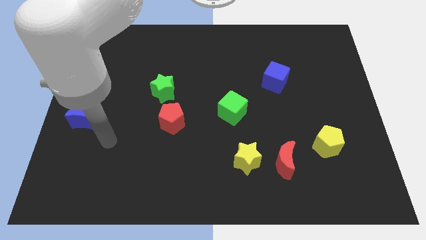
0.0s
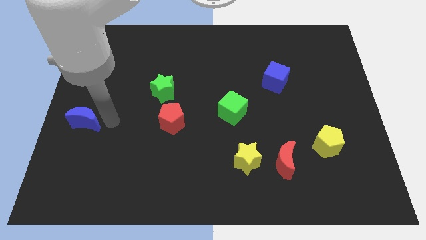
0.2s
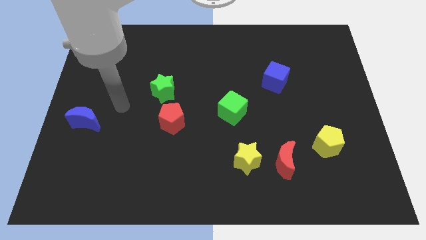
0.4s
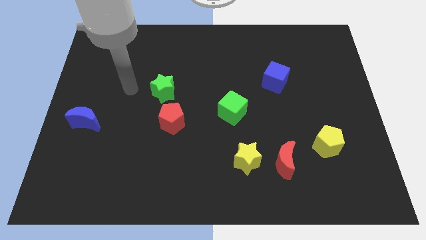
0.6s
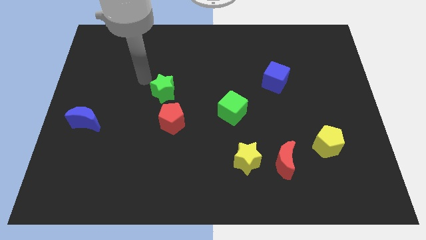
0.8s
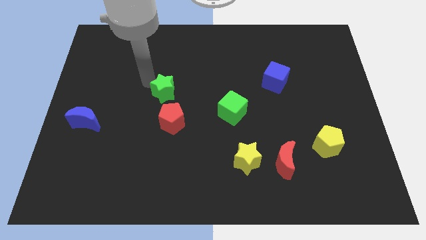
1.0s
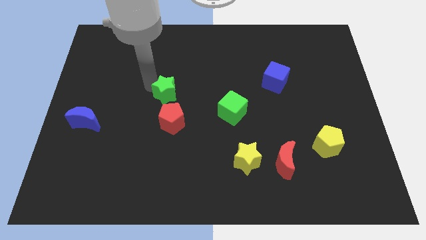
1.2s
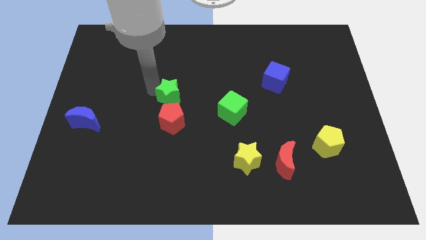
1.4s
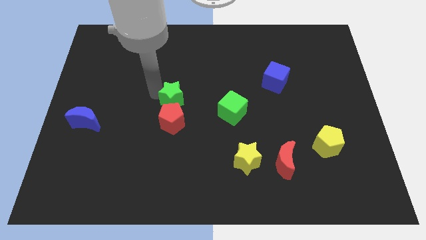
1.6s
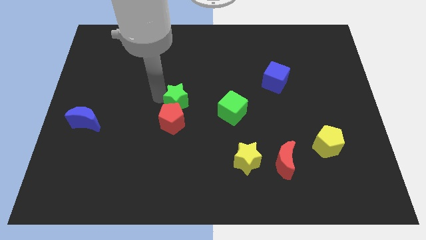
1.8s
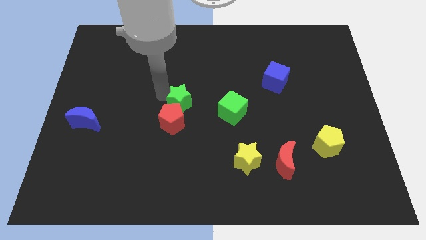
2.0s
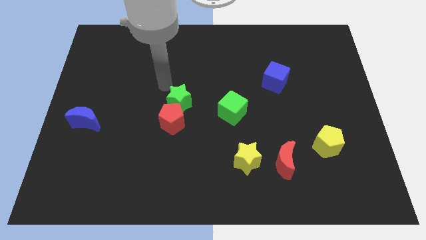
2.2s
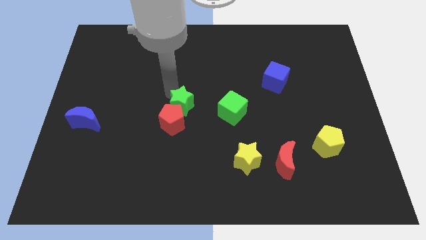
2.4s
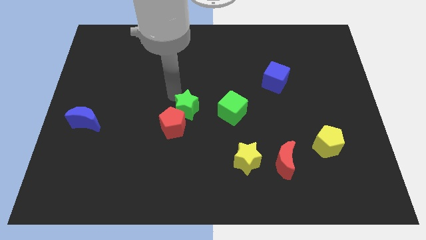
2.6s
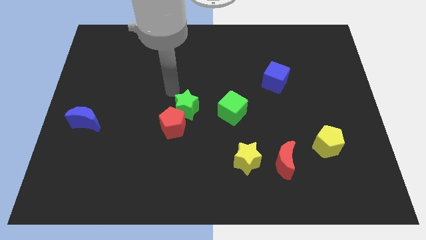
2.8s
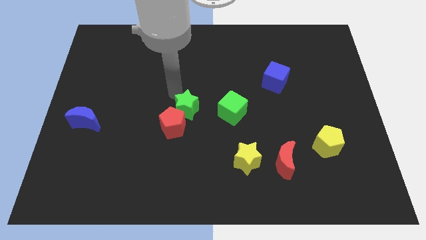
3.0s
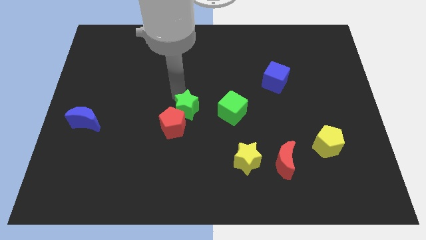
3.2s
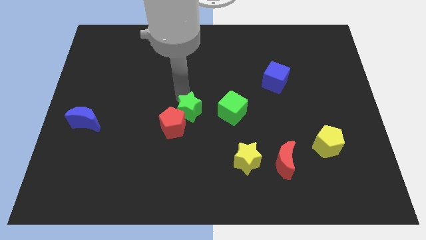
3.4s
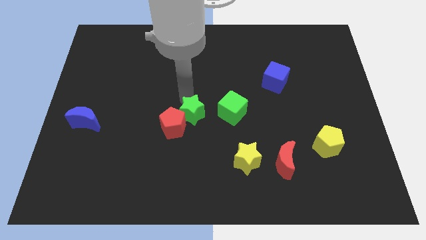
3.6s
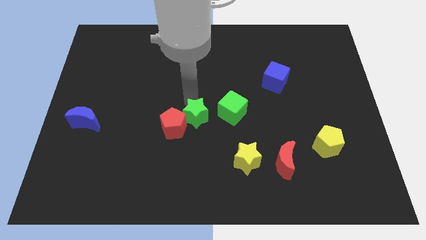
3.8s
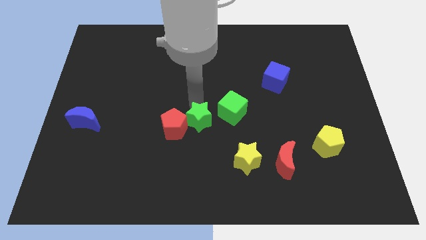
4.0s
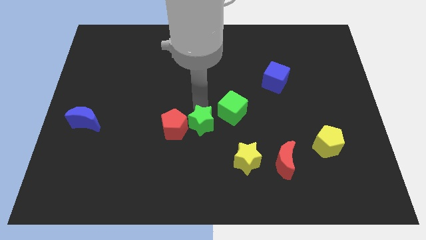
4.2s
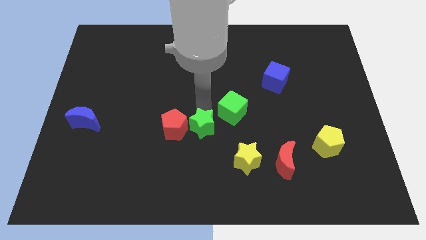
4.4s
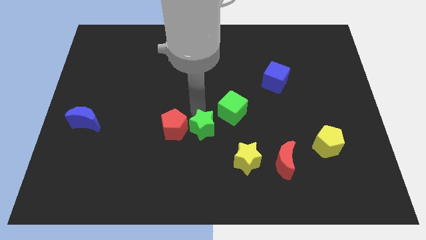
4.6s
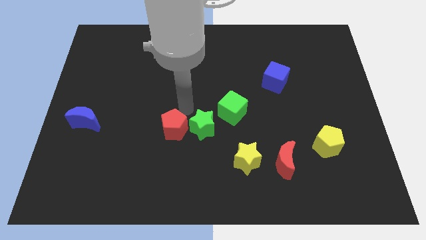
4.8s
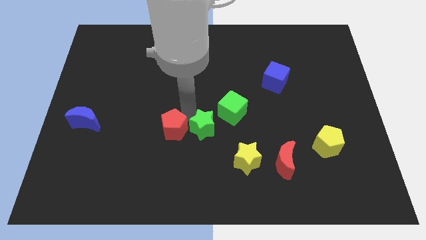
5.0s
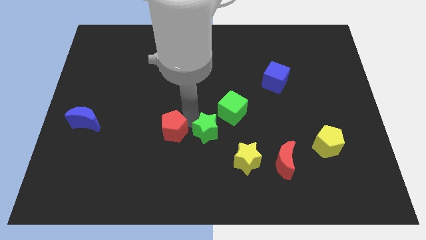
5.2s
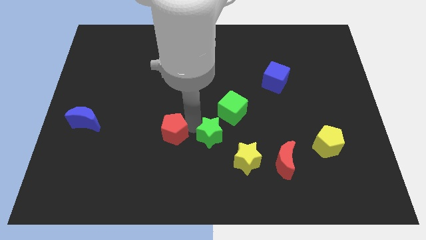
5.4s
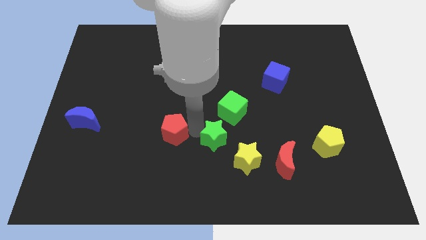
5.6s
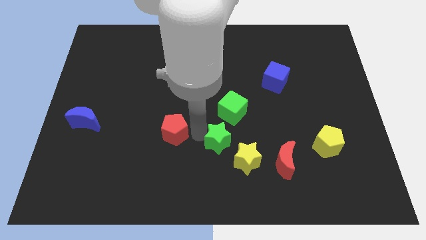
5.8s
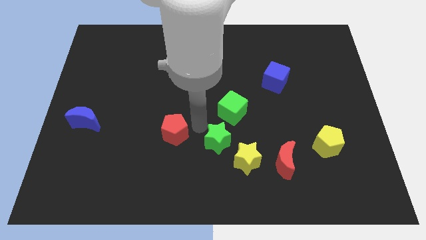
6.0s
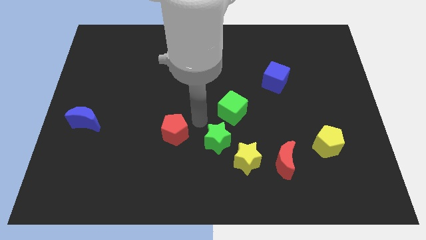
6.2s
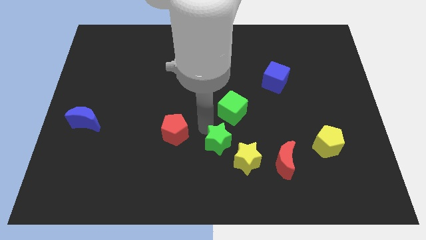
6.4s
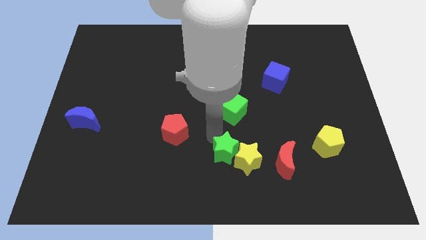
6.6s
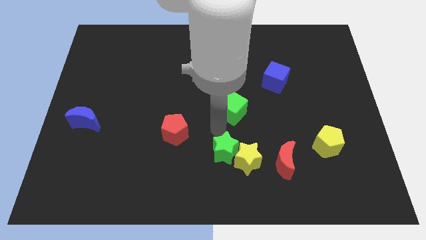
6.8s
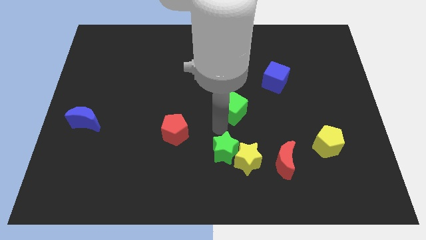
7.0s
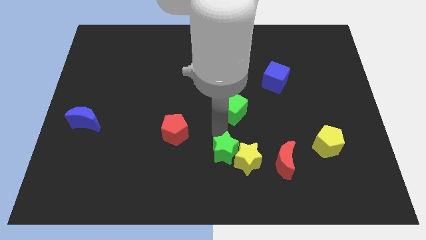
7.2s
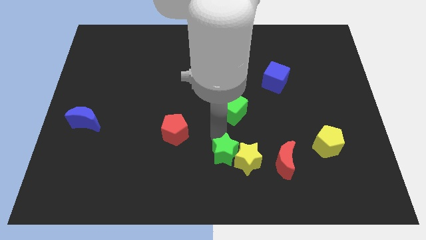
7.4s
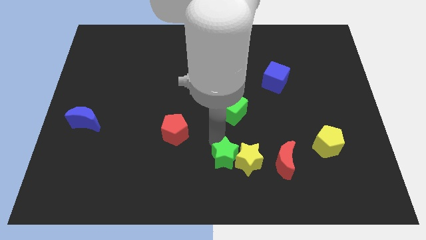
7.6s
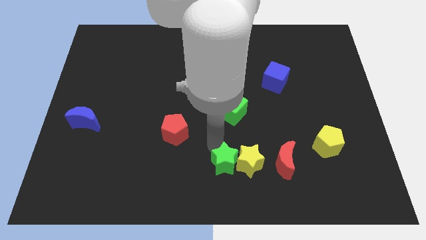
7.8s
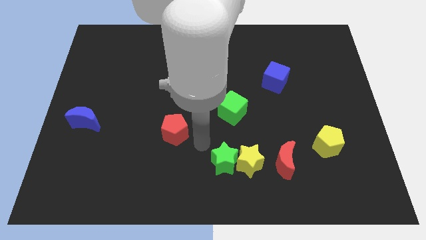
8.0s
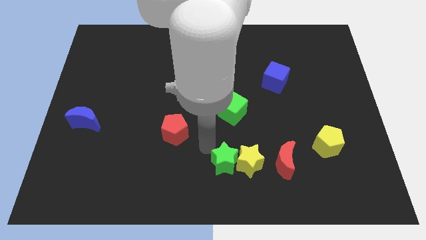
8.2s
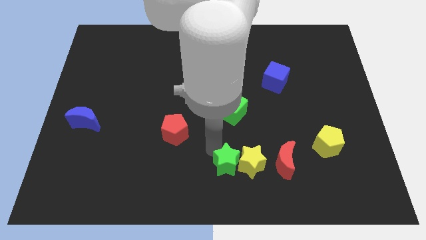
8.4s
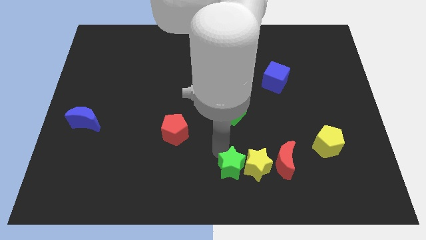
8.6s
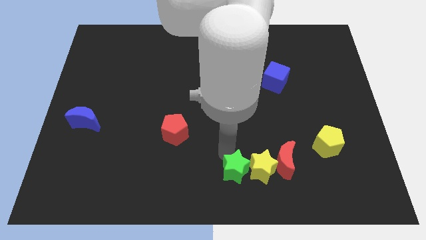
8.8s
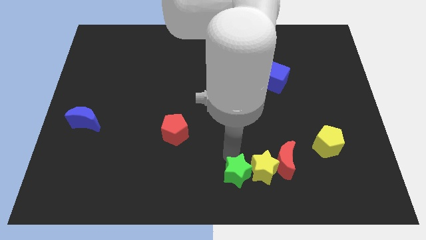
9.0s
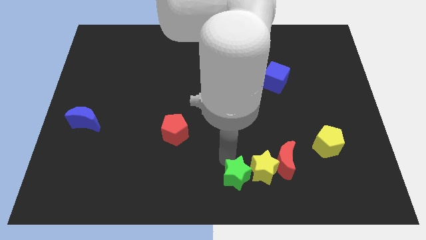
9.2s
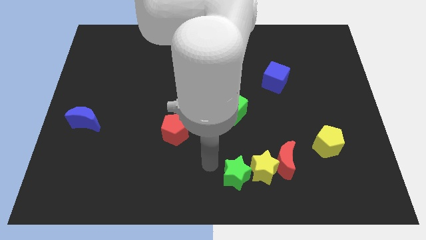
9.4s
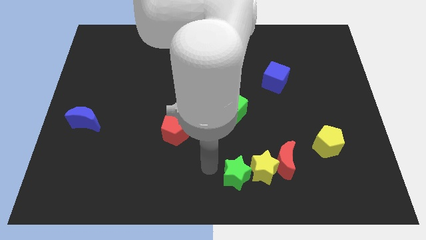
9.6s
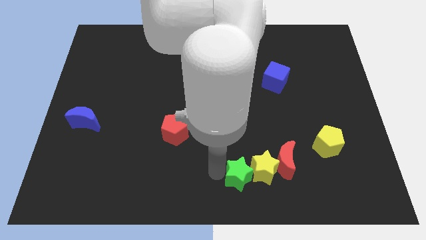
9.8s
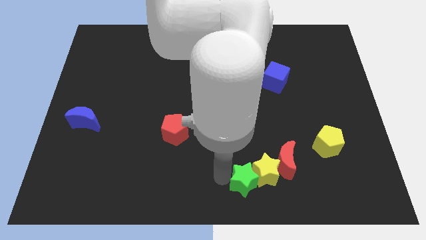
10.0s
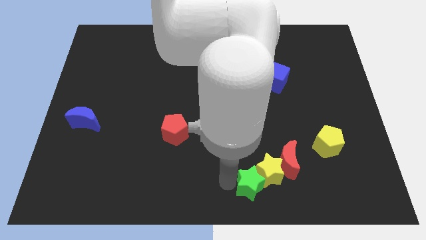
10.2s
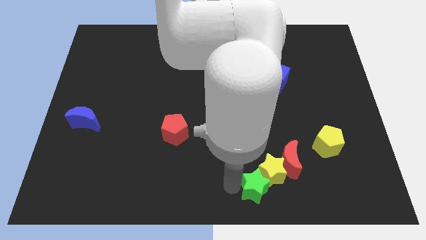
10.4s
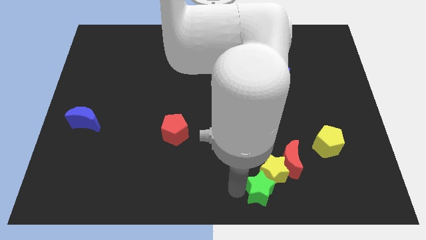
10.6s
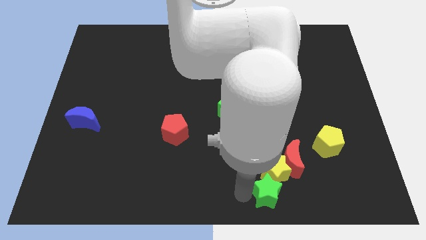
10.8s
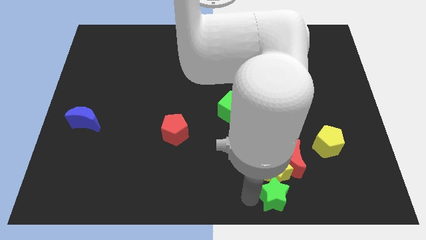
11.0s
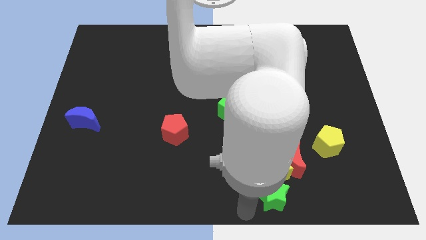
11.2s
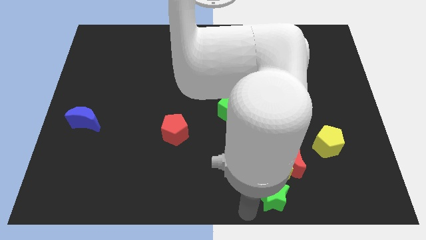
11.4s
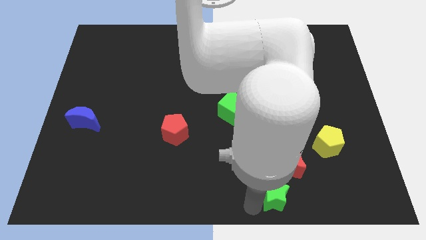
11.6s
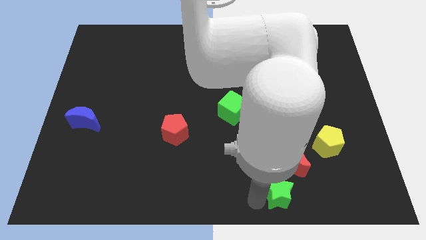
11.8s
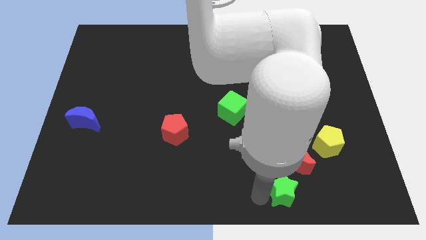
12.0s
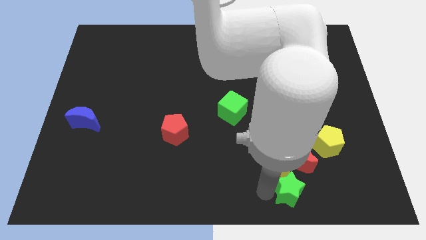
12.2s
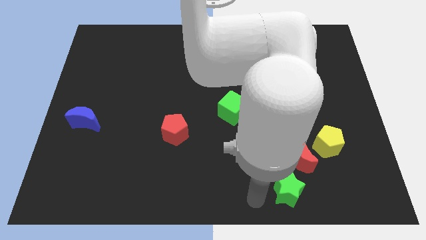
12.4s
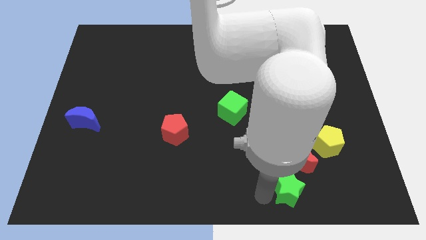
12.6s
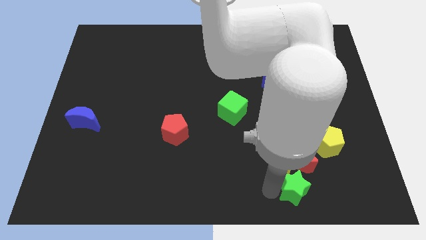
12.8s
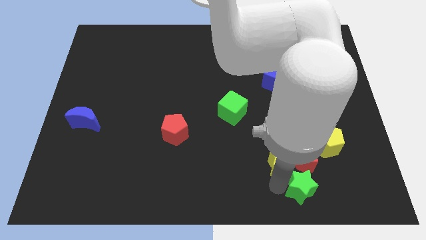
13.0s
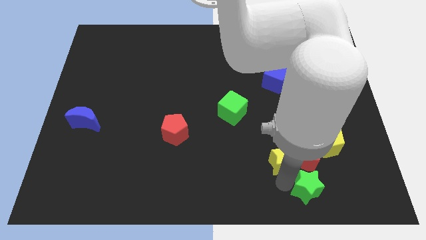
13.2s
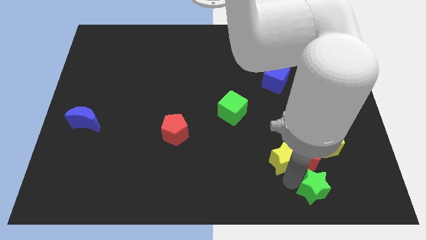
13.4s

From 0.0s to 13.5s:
slide the green star to the bottom right side of the red moon
